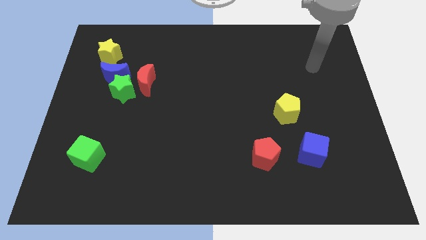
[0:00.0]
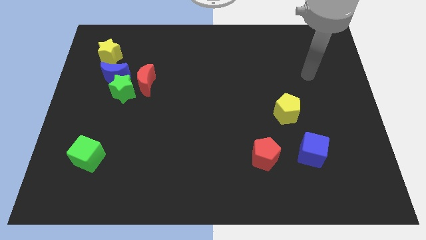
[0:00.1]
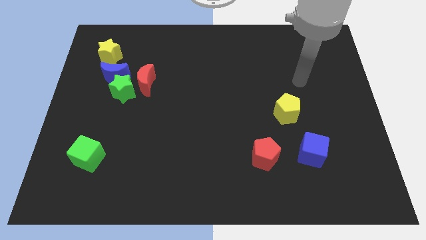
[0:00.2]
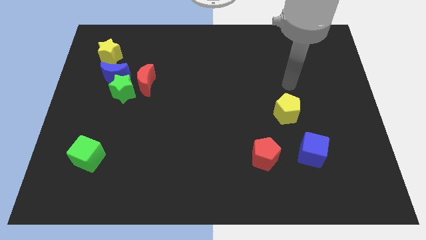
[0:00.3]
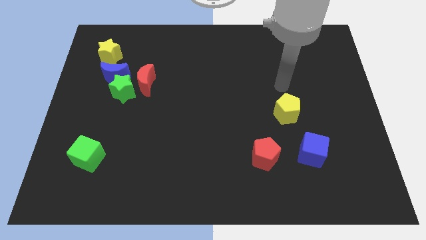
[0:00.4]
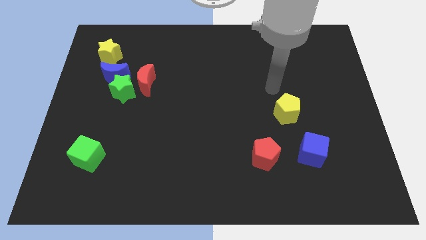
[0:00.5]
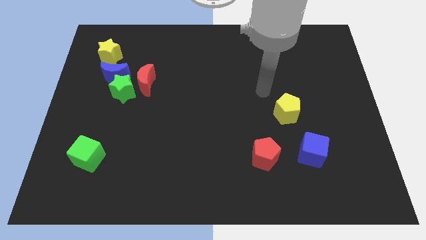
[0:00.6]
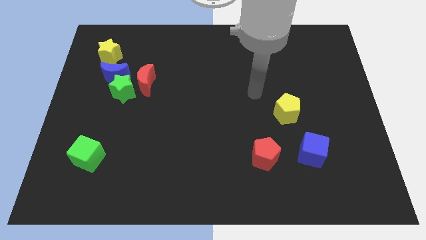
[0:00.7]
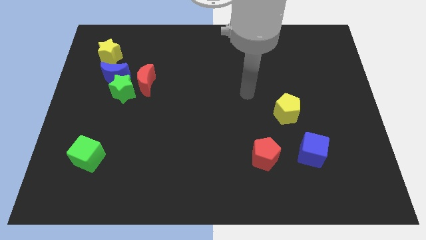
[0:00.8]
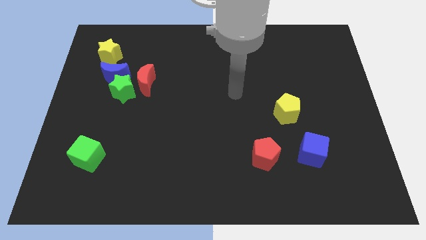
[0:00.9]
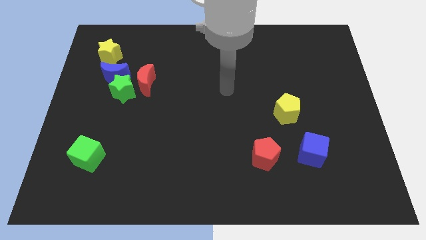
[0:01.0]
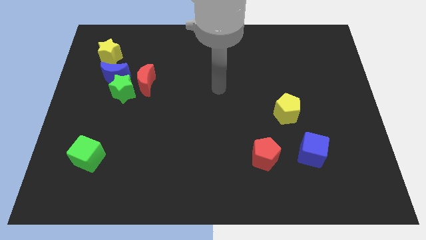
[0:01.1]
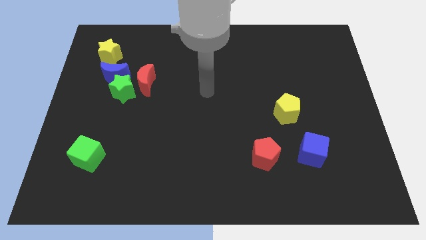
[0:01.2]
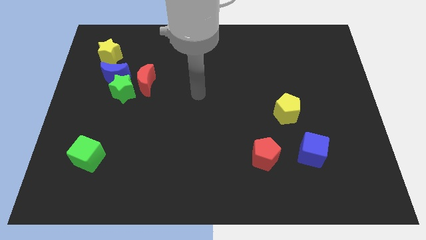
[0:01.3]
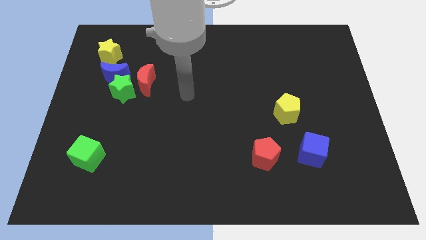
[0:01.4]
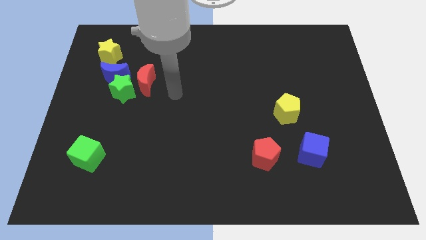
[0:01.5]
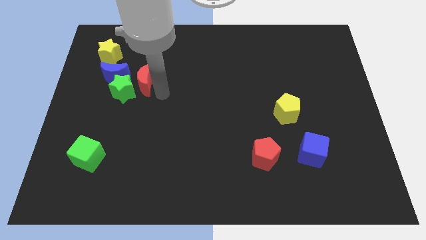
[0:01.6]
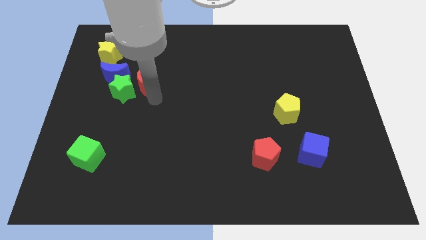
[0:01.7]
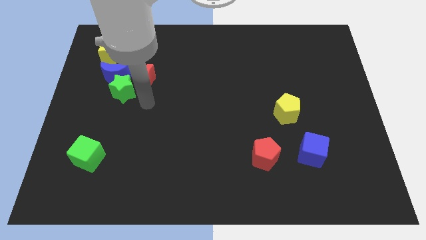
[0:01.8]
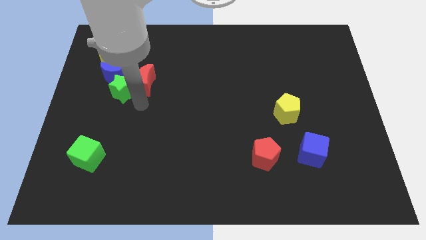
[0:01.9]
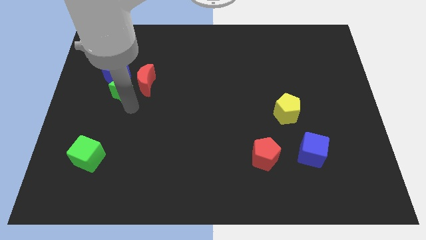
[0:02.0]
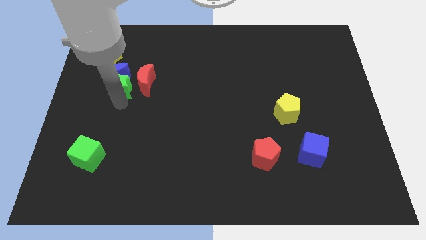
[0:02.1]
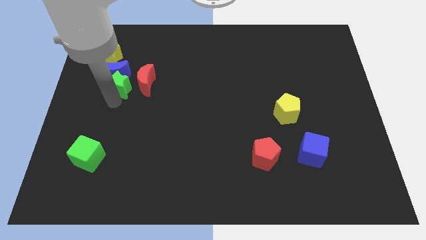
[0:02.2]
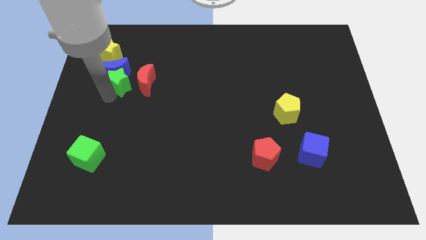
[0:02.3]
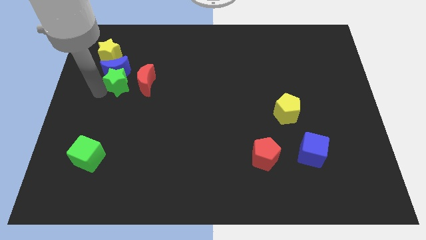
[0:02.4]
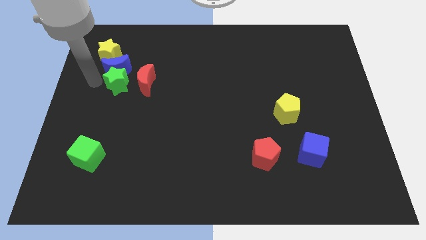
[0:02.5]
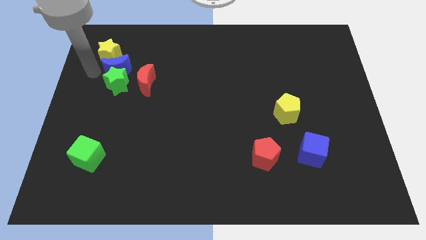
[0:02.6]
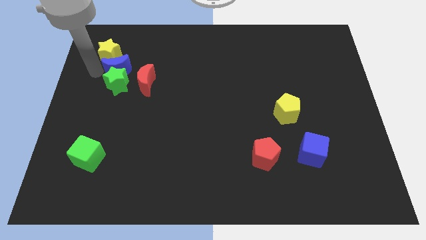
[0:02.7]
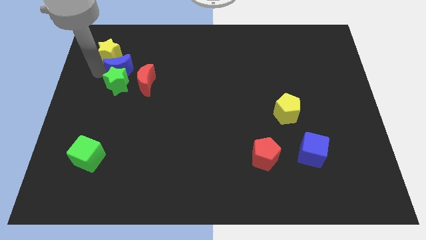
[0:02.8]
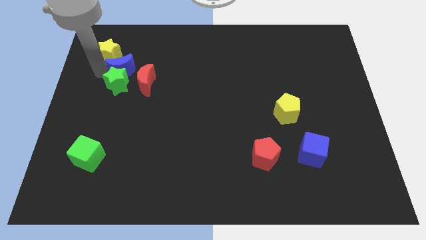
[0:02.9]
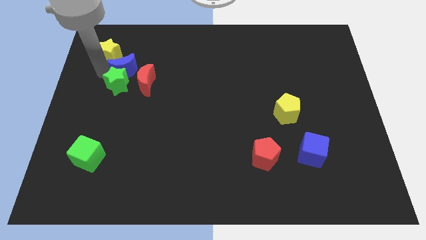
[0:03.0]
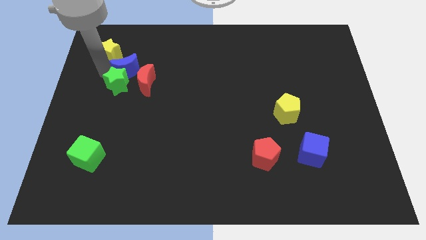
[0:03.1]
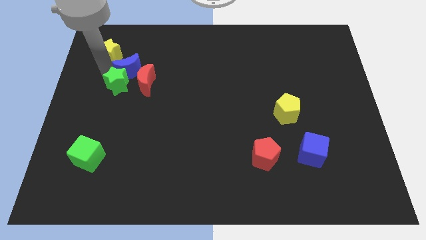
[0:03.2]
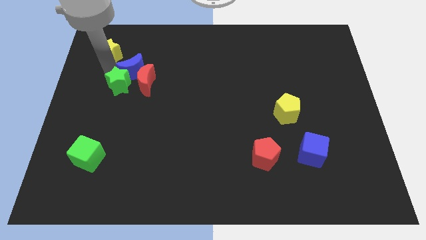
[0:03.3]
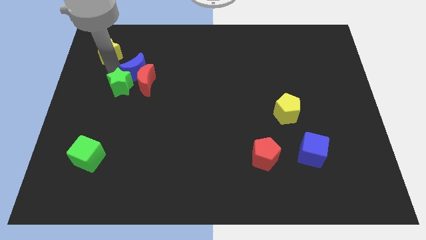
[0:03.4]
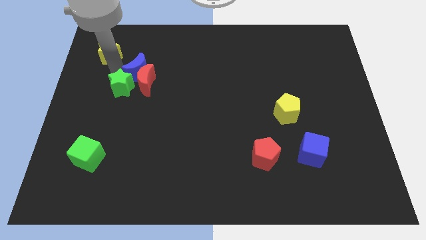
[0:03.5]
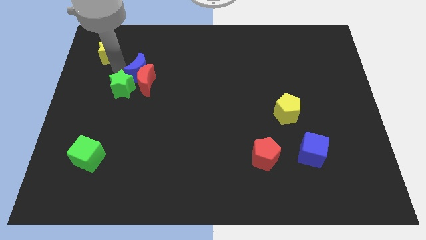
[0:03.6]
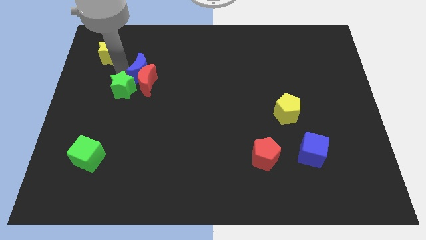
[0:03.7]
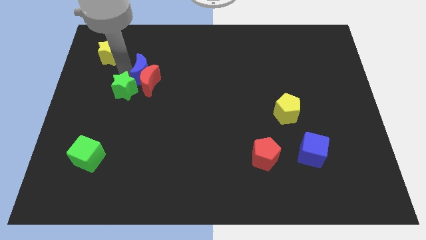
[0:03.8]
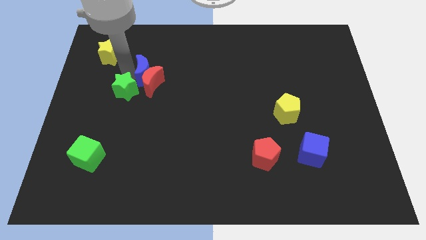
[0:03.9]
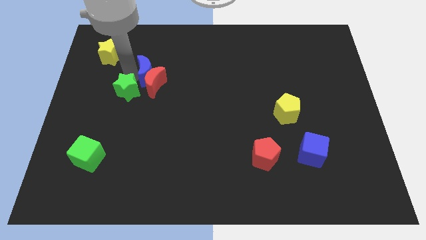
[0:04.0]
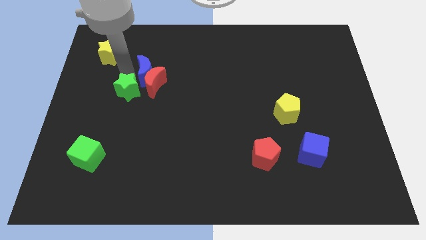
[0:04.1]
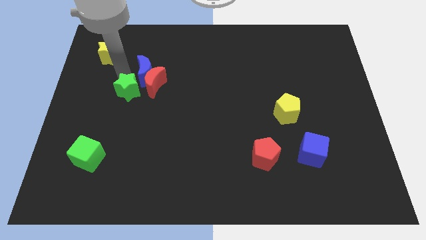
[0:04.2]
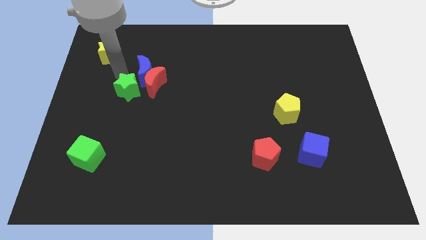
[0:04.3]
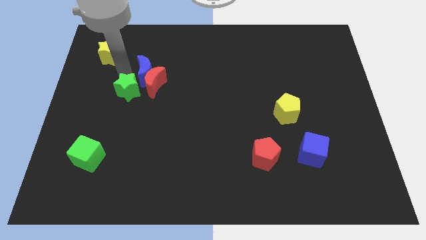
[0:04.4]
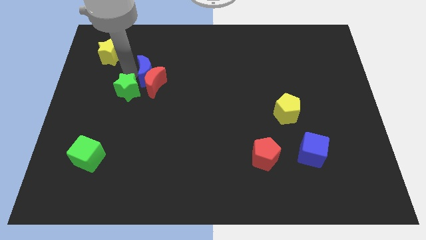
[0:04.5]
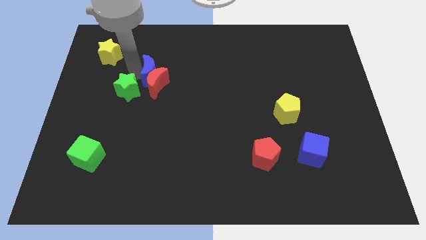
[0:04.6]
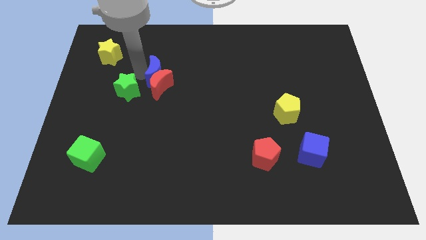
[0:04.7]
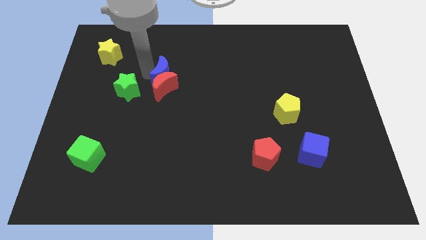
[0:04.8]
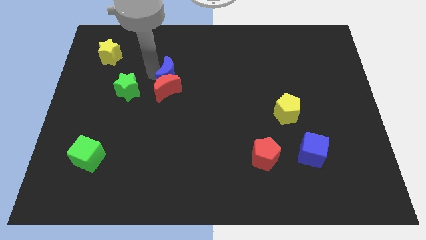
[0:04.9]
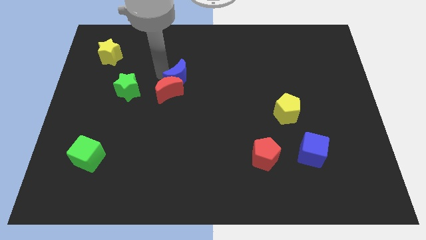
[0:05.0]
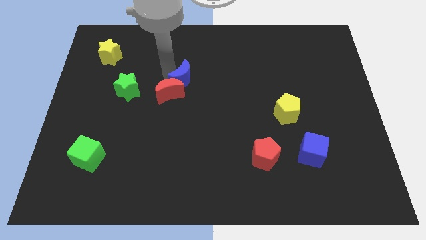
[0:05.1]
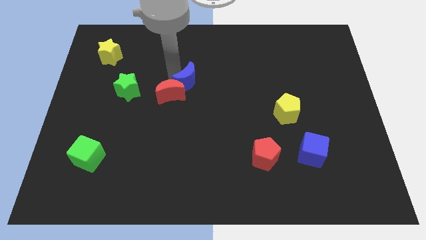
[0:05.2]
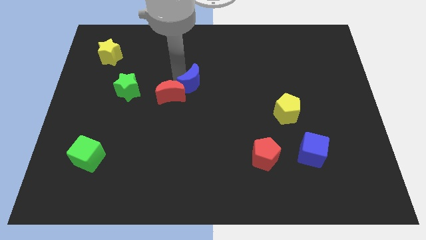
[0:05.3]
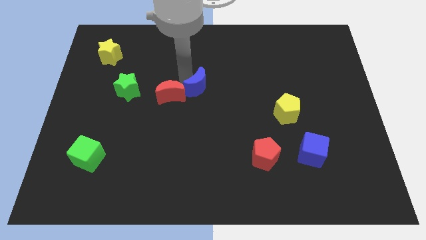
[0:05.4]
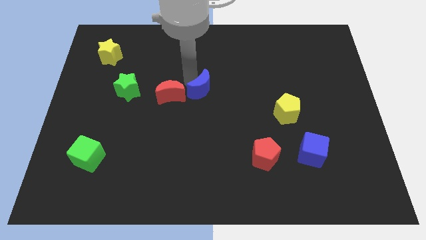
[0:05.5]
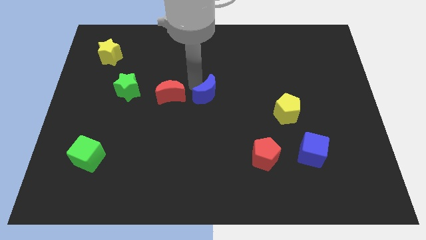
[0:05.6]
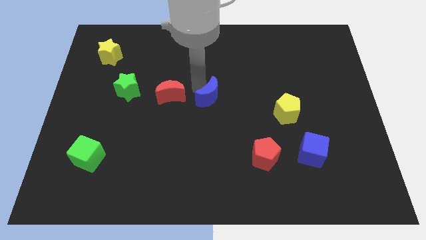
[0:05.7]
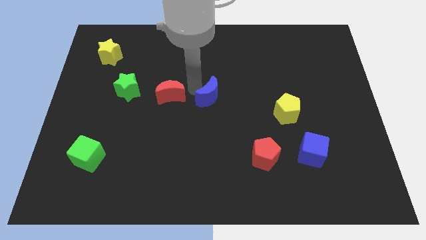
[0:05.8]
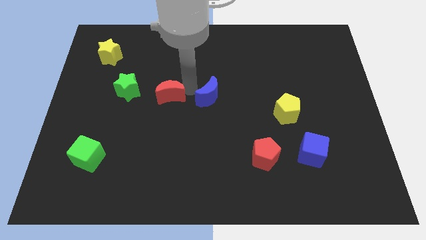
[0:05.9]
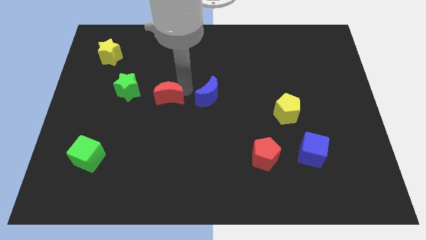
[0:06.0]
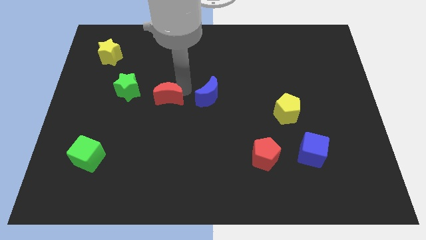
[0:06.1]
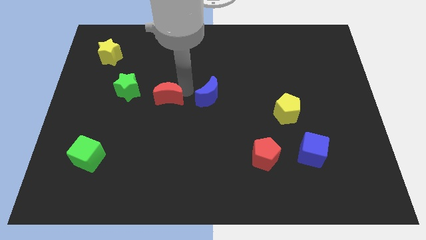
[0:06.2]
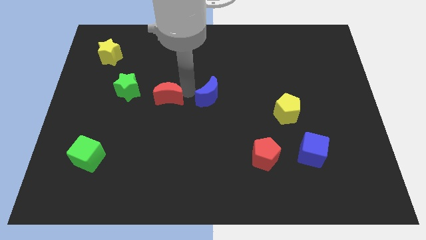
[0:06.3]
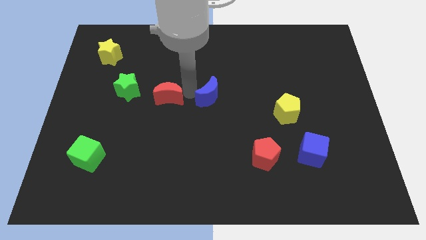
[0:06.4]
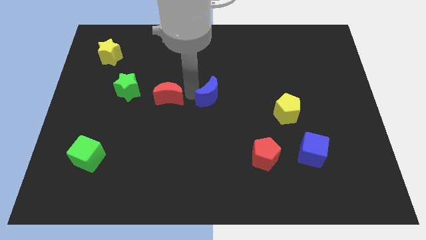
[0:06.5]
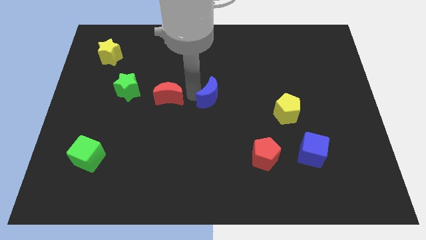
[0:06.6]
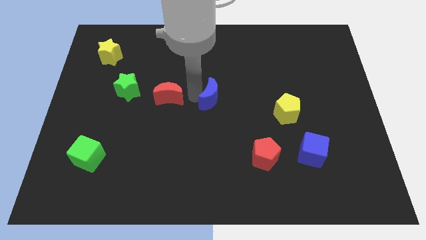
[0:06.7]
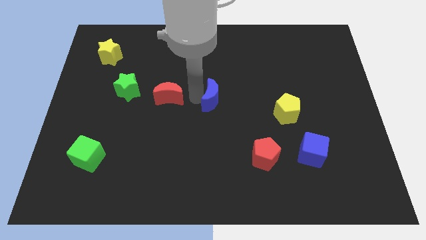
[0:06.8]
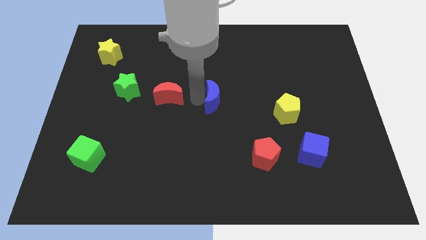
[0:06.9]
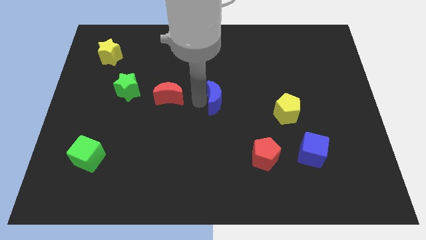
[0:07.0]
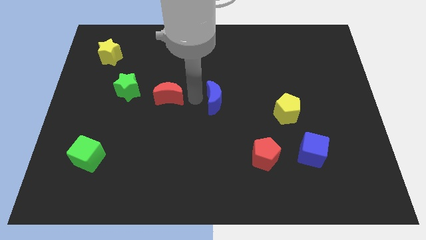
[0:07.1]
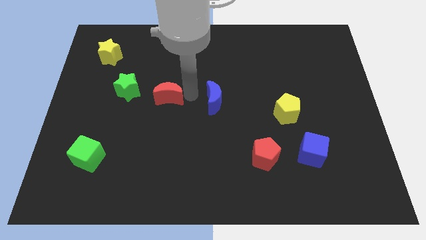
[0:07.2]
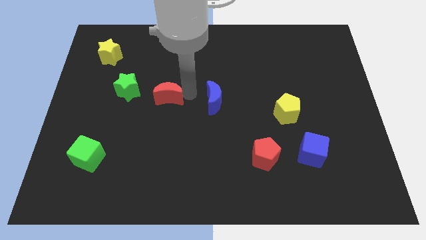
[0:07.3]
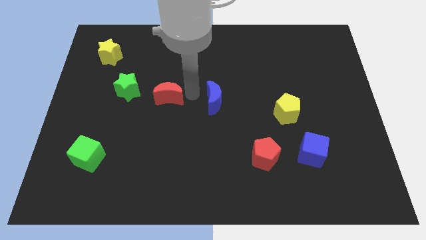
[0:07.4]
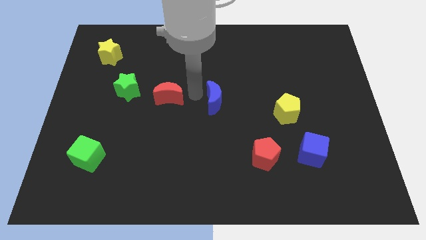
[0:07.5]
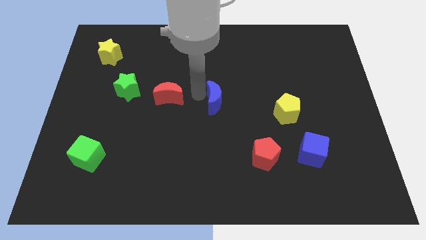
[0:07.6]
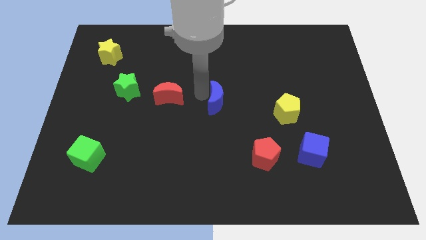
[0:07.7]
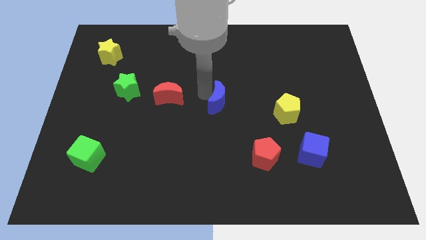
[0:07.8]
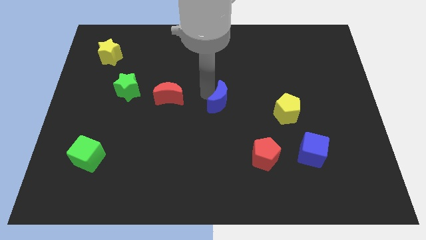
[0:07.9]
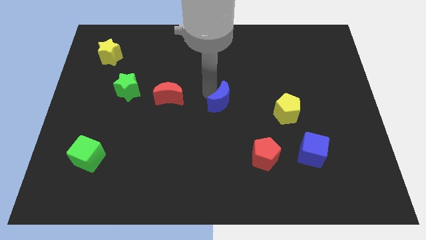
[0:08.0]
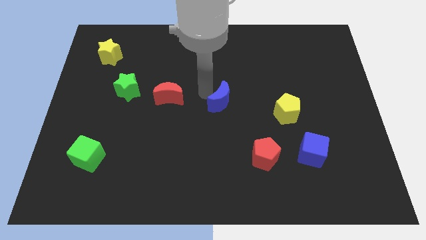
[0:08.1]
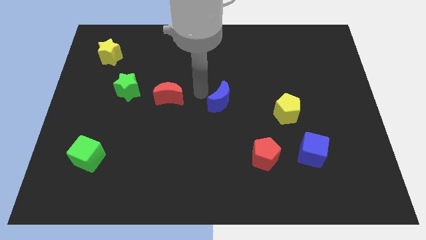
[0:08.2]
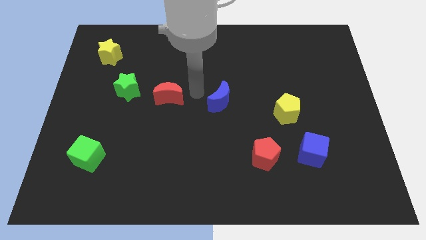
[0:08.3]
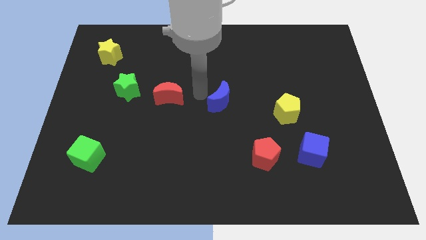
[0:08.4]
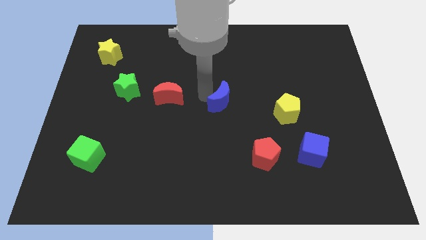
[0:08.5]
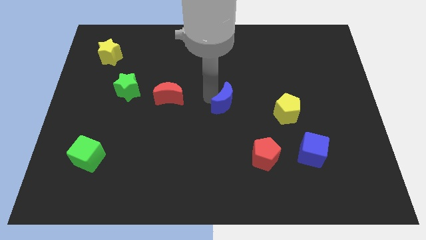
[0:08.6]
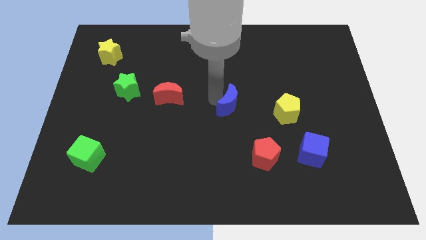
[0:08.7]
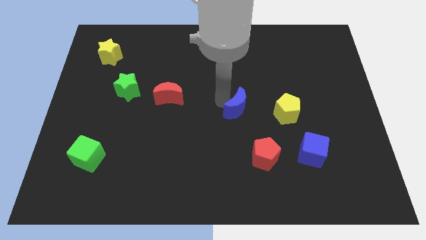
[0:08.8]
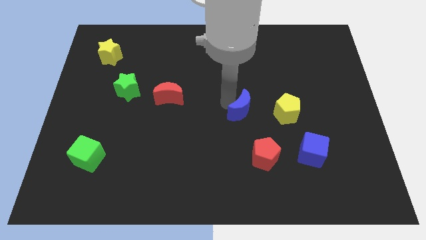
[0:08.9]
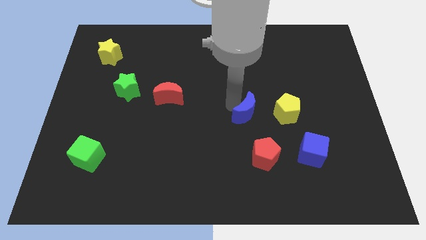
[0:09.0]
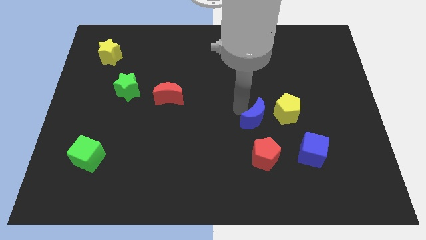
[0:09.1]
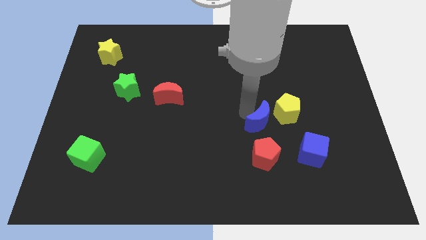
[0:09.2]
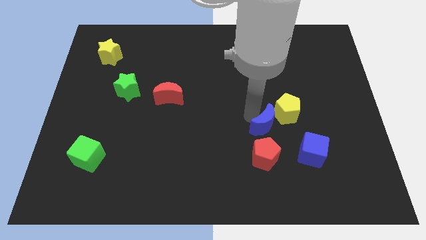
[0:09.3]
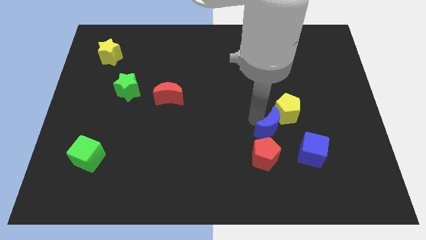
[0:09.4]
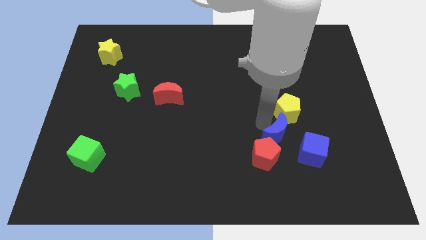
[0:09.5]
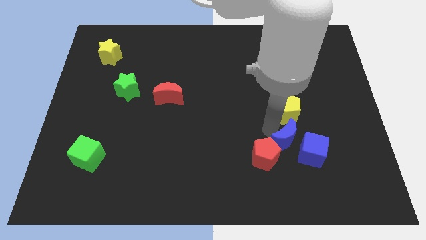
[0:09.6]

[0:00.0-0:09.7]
push the blue moon to the blue cube
